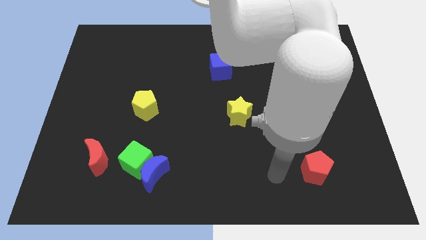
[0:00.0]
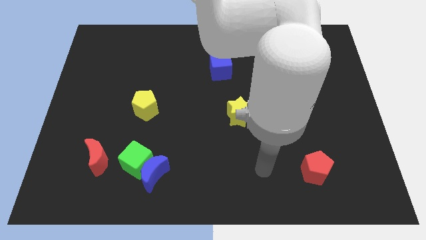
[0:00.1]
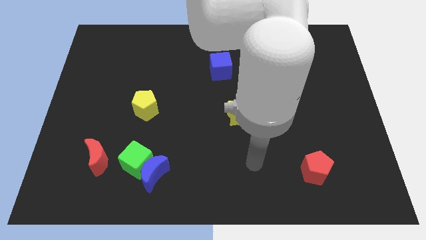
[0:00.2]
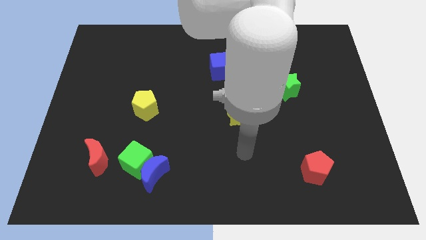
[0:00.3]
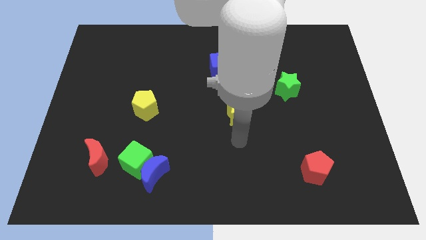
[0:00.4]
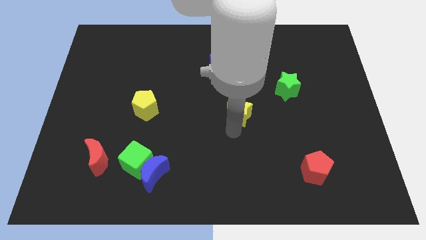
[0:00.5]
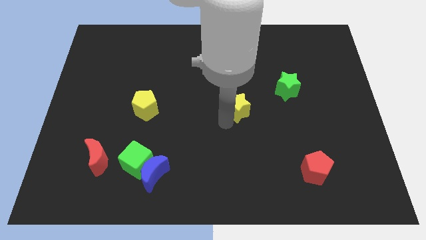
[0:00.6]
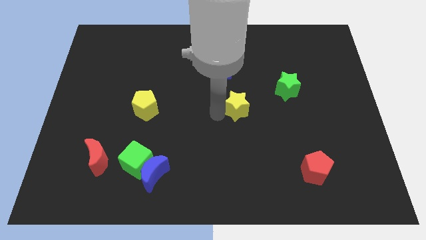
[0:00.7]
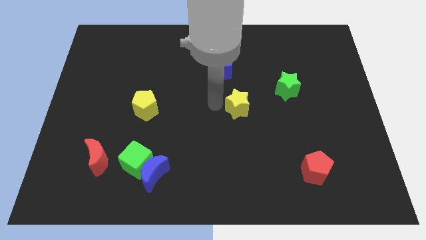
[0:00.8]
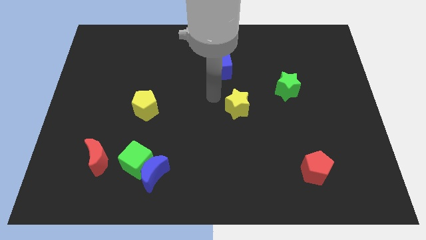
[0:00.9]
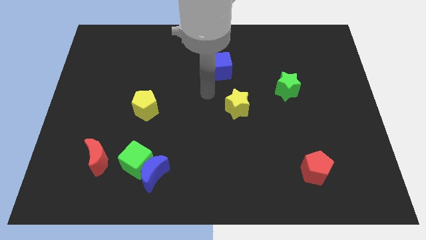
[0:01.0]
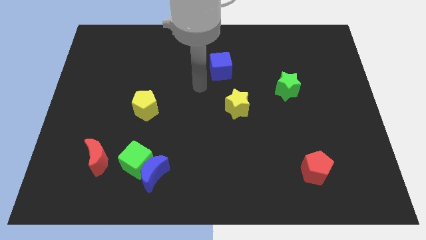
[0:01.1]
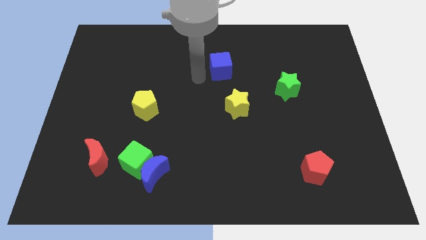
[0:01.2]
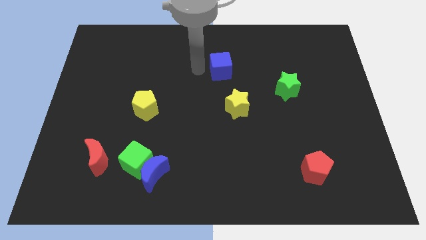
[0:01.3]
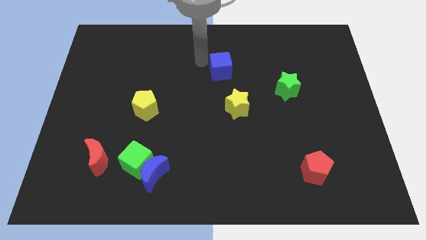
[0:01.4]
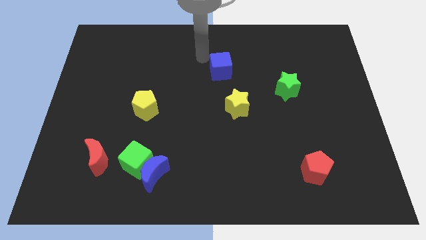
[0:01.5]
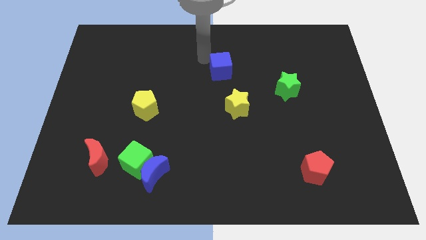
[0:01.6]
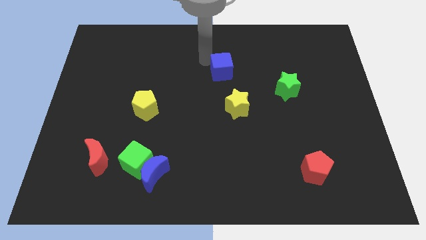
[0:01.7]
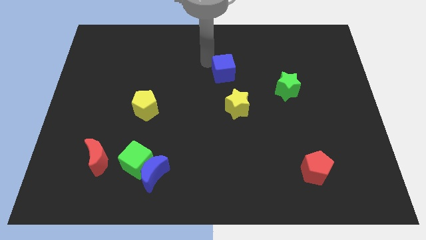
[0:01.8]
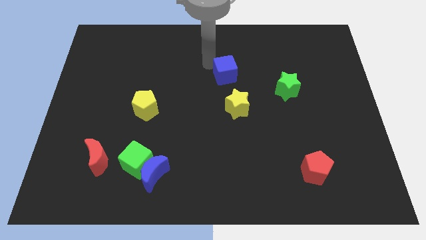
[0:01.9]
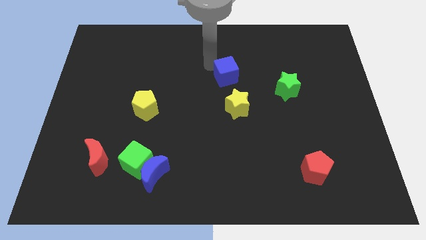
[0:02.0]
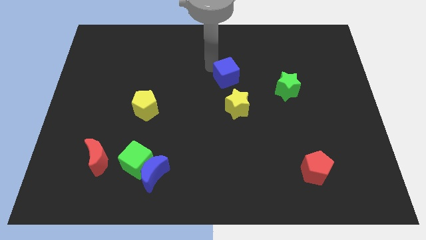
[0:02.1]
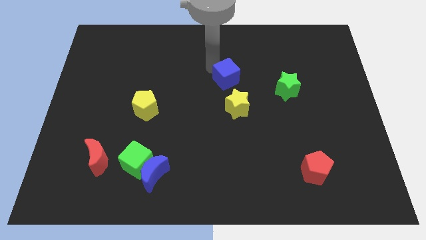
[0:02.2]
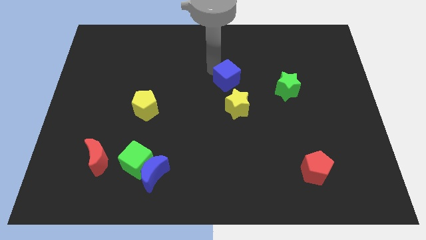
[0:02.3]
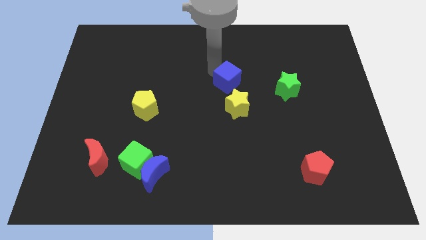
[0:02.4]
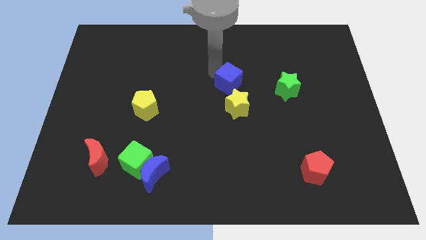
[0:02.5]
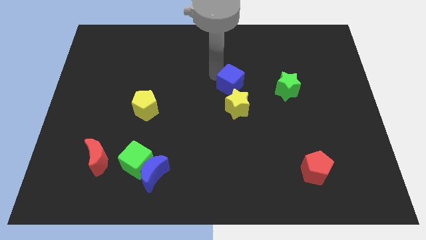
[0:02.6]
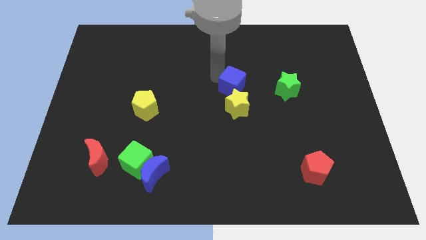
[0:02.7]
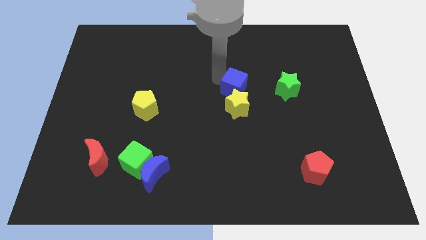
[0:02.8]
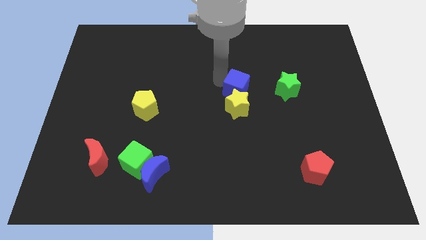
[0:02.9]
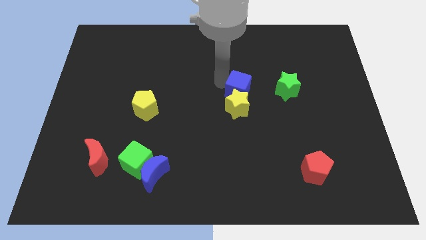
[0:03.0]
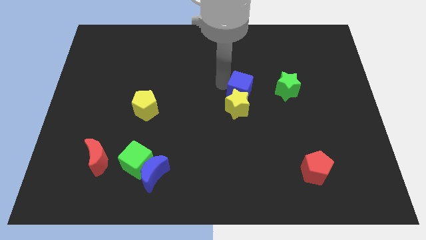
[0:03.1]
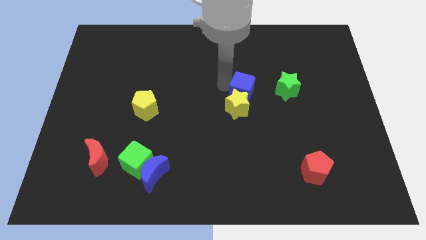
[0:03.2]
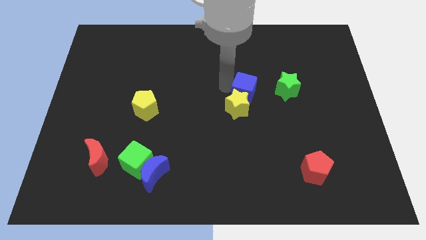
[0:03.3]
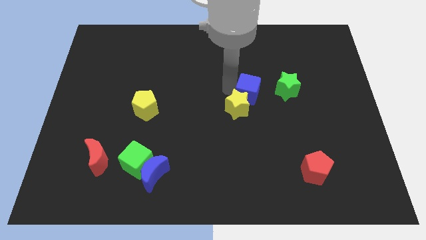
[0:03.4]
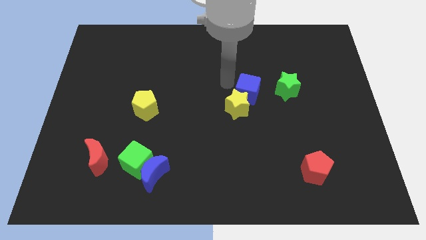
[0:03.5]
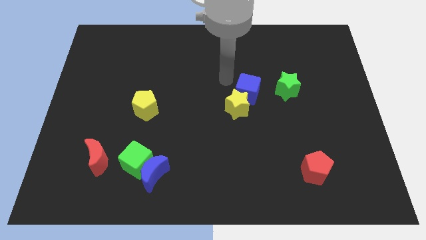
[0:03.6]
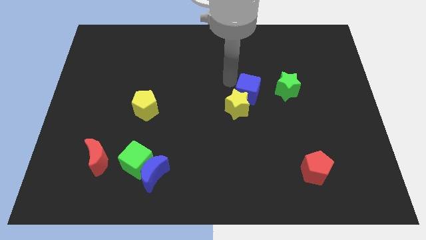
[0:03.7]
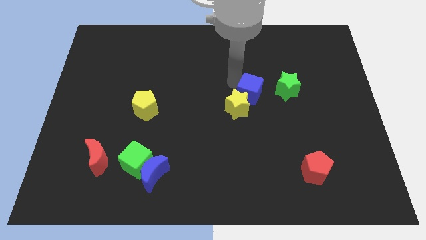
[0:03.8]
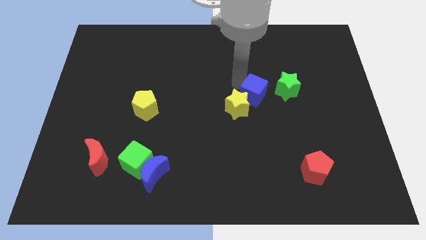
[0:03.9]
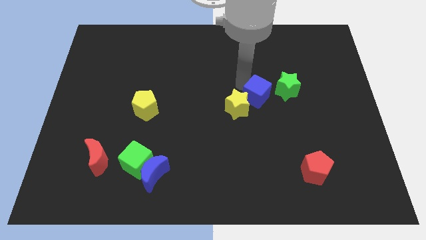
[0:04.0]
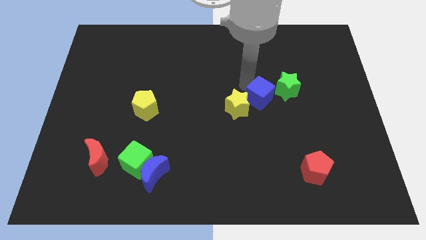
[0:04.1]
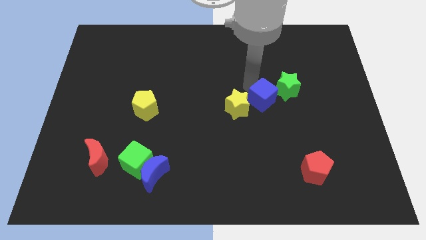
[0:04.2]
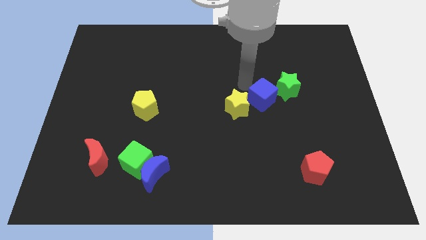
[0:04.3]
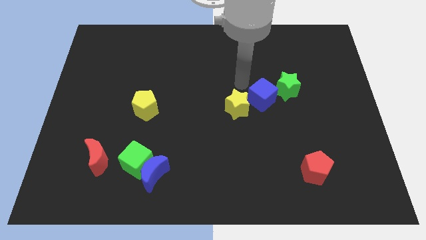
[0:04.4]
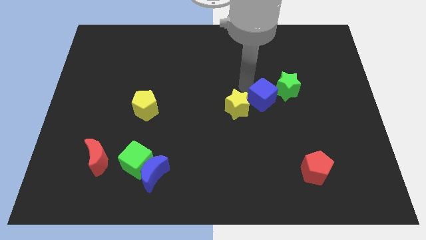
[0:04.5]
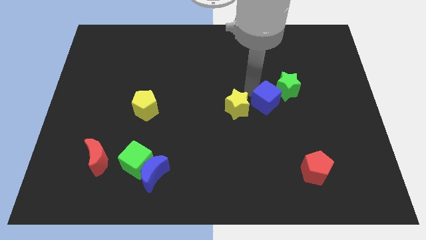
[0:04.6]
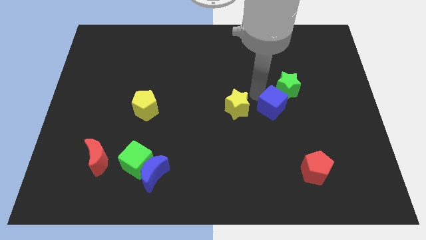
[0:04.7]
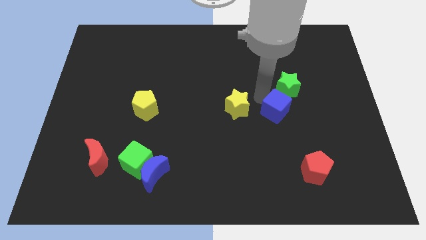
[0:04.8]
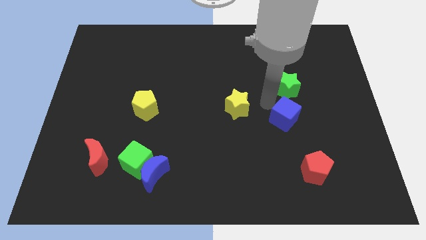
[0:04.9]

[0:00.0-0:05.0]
push the blue cube diagonally downwards and right

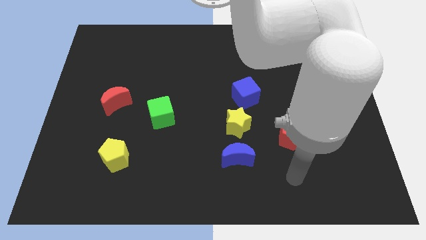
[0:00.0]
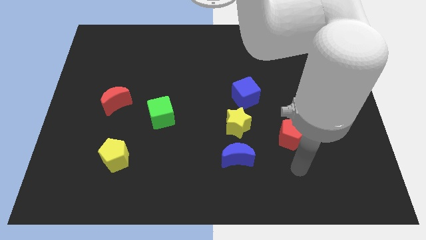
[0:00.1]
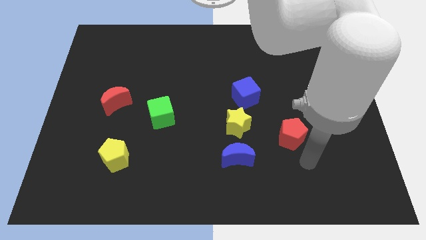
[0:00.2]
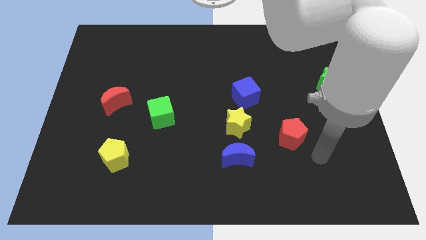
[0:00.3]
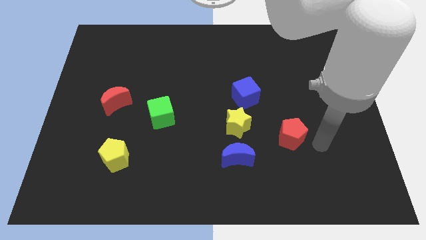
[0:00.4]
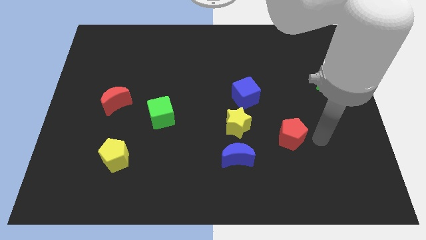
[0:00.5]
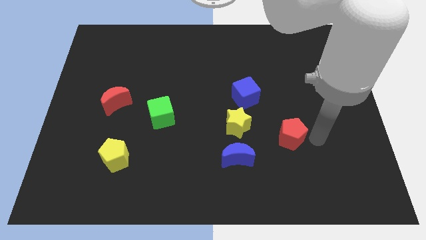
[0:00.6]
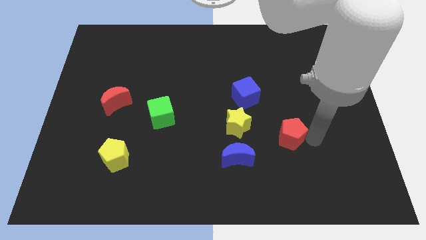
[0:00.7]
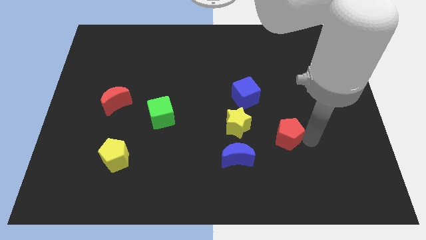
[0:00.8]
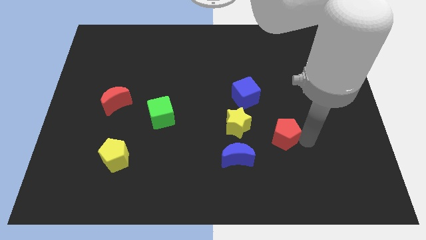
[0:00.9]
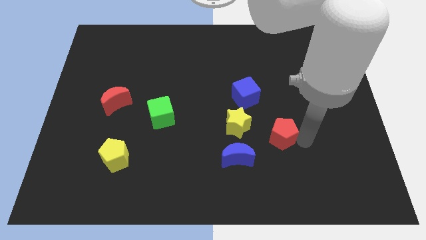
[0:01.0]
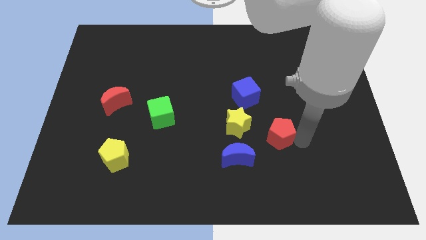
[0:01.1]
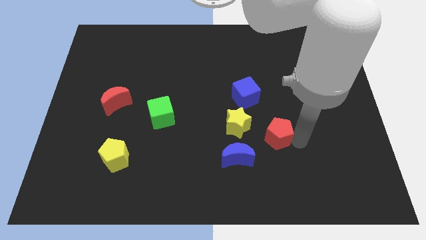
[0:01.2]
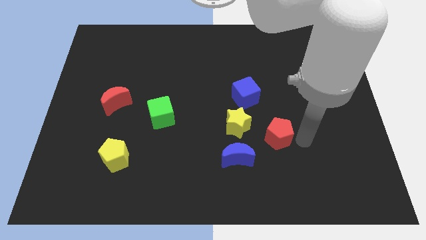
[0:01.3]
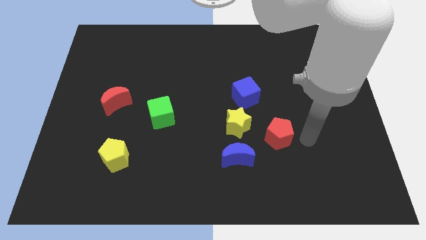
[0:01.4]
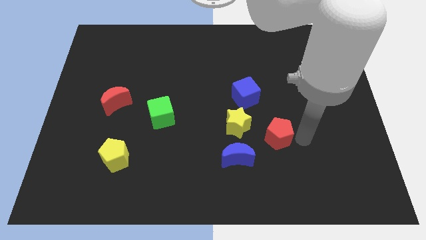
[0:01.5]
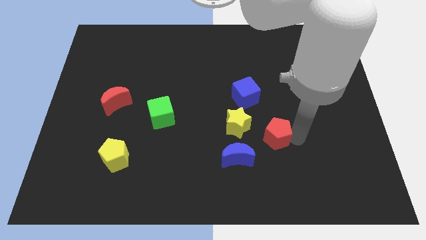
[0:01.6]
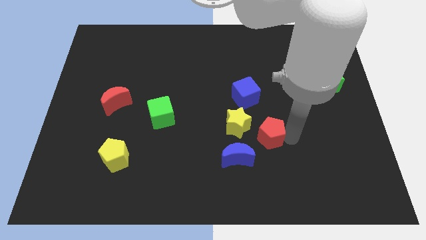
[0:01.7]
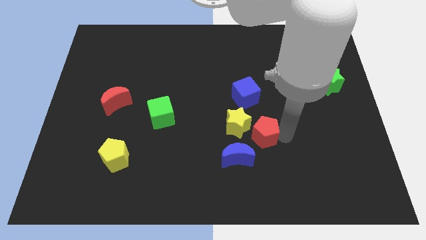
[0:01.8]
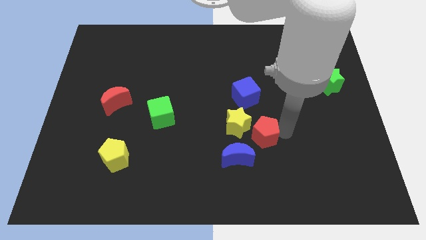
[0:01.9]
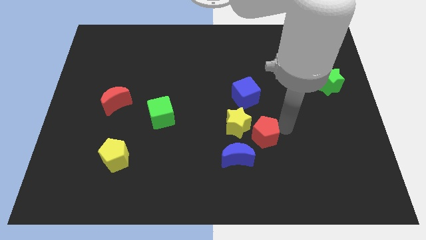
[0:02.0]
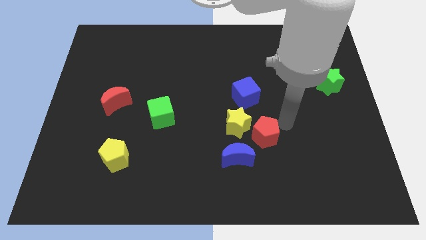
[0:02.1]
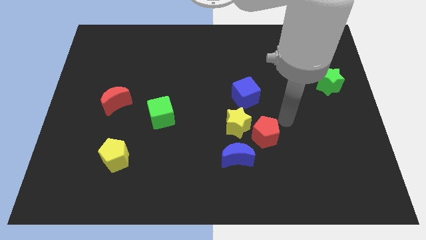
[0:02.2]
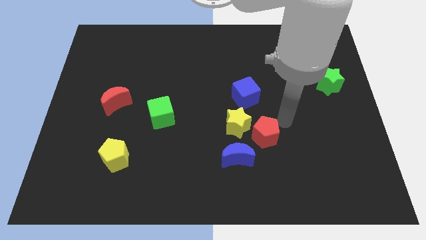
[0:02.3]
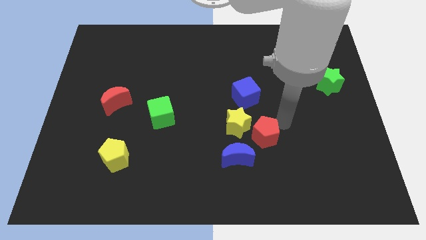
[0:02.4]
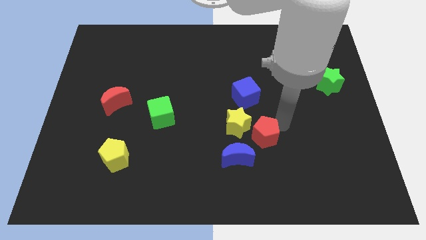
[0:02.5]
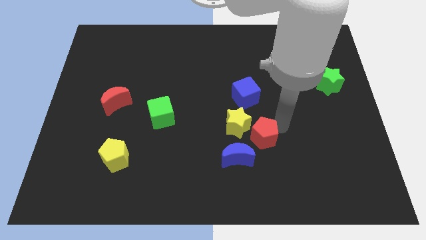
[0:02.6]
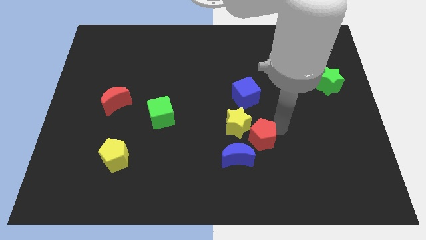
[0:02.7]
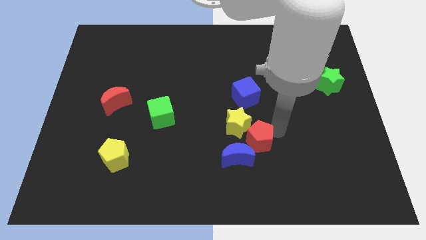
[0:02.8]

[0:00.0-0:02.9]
push the red pentagon left a little
